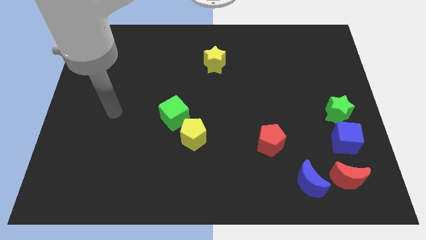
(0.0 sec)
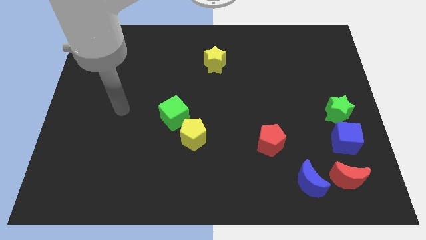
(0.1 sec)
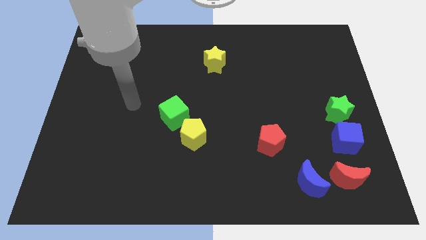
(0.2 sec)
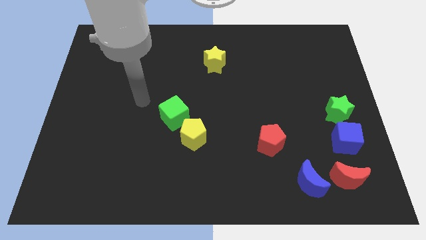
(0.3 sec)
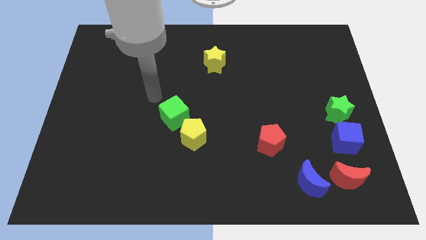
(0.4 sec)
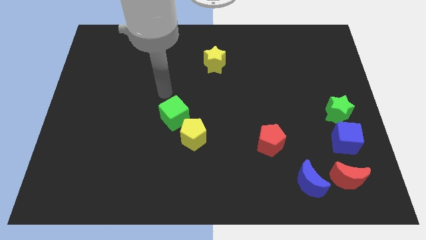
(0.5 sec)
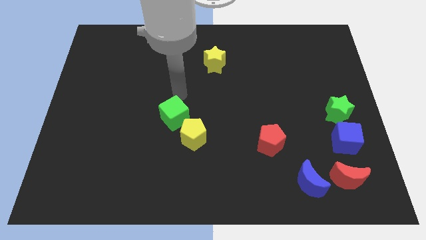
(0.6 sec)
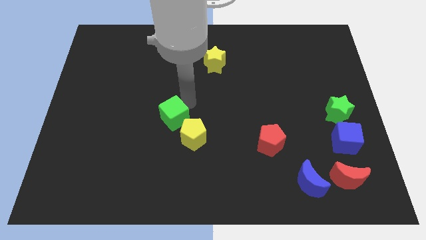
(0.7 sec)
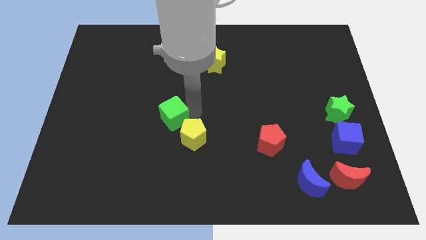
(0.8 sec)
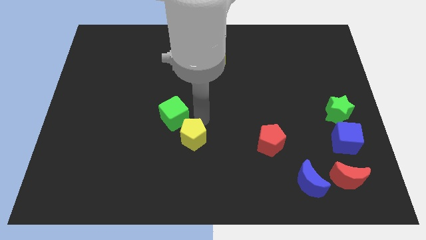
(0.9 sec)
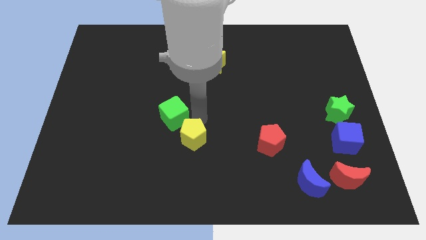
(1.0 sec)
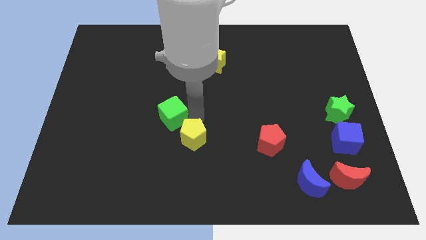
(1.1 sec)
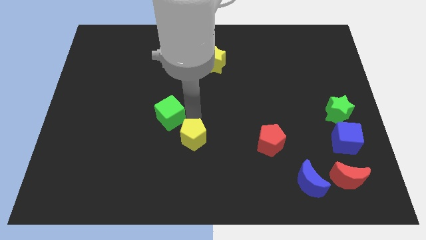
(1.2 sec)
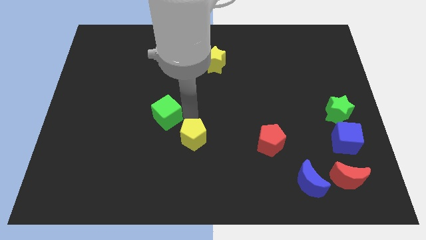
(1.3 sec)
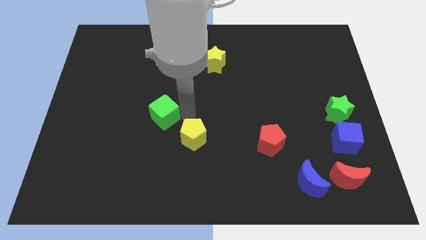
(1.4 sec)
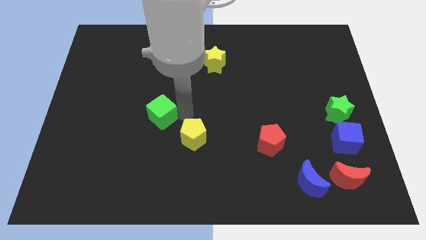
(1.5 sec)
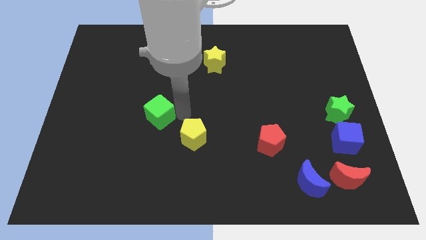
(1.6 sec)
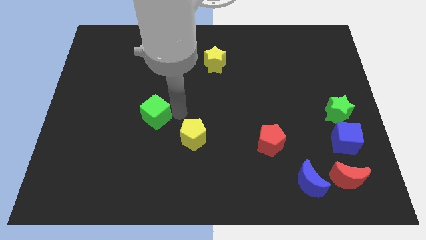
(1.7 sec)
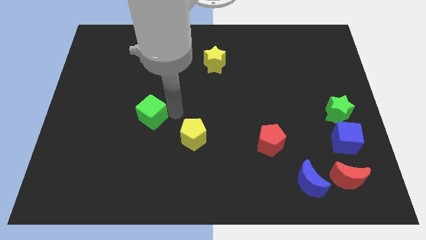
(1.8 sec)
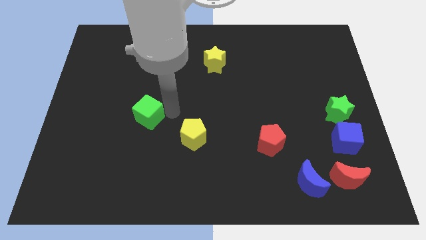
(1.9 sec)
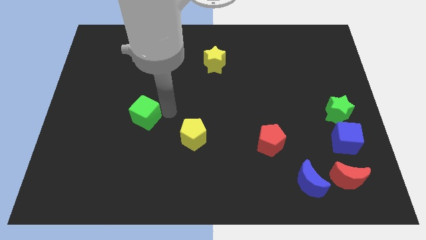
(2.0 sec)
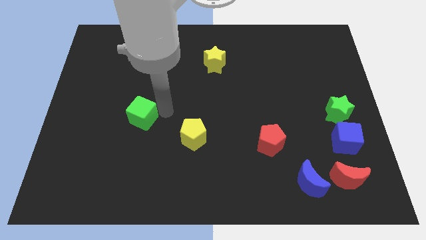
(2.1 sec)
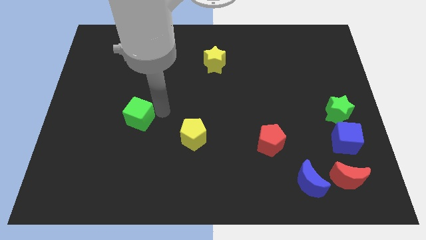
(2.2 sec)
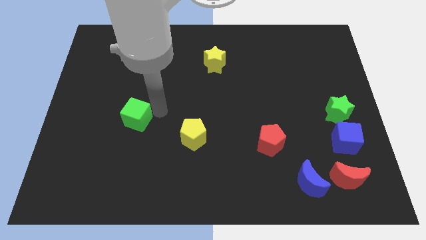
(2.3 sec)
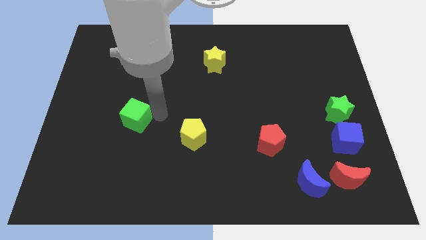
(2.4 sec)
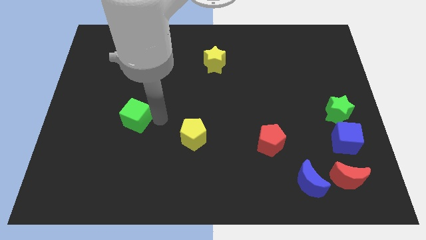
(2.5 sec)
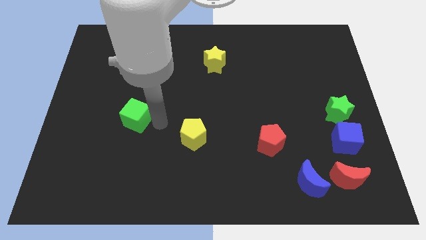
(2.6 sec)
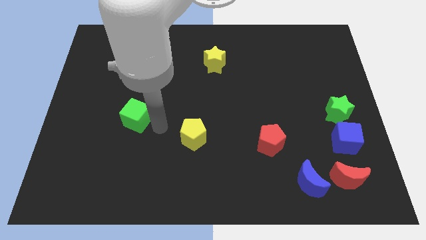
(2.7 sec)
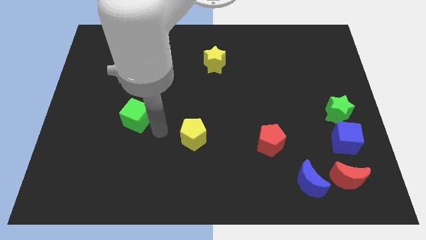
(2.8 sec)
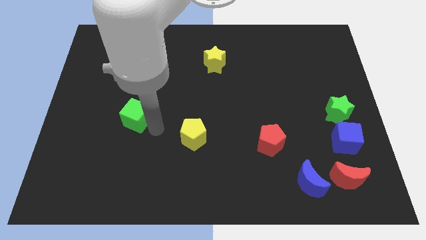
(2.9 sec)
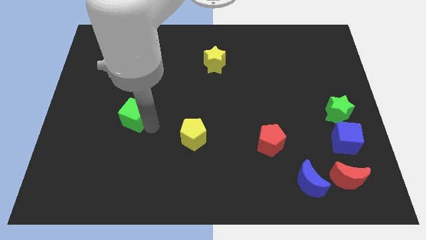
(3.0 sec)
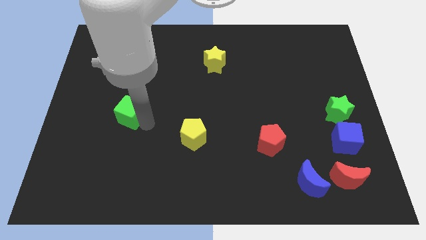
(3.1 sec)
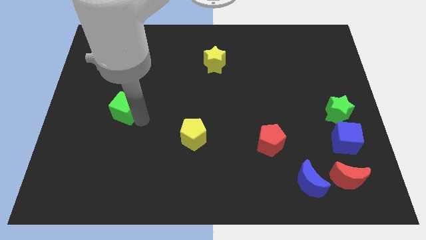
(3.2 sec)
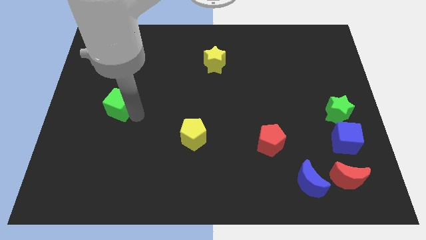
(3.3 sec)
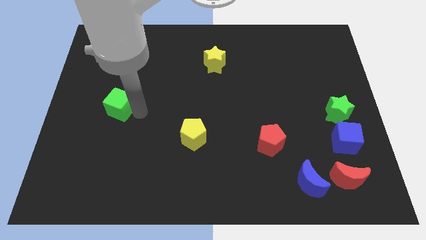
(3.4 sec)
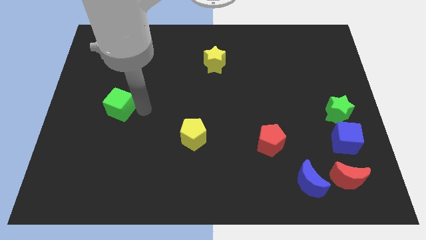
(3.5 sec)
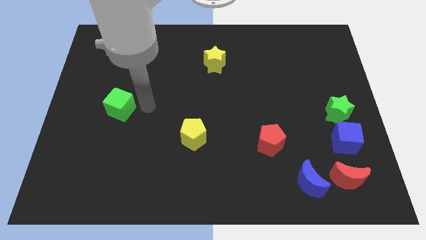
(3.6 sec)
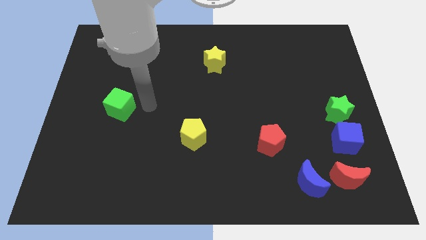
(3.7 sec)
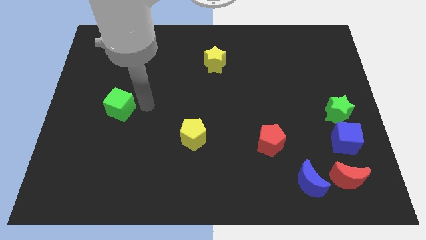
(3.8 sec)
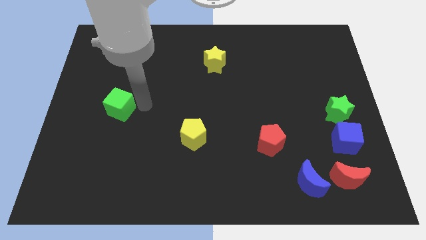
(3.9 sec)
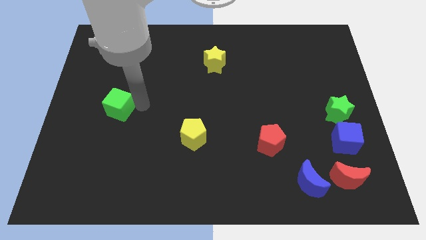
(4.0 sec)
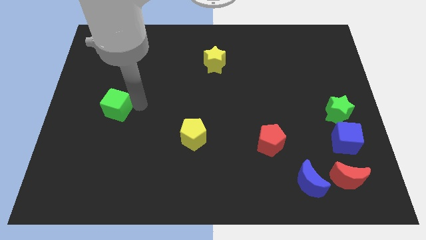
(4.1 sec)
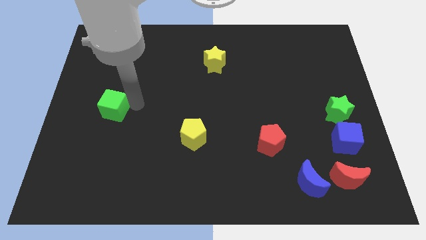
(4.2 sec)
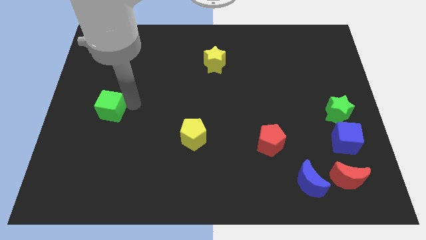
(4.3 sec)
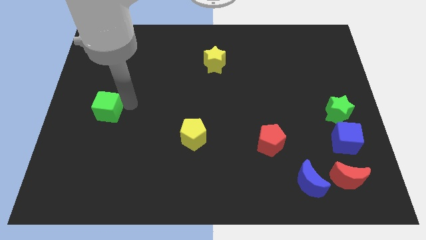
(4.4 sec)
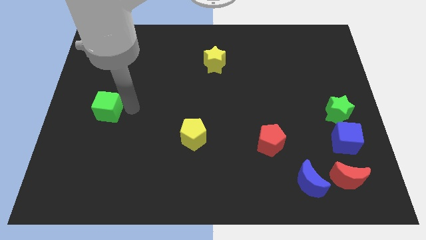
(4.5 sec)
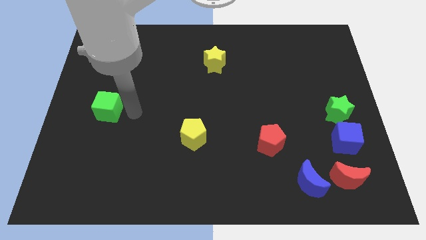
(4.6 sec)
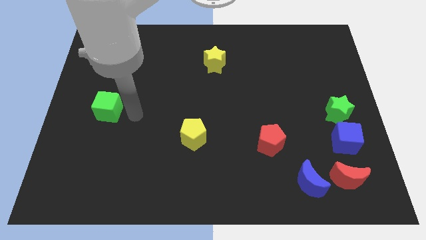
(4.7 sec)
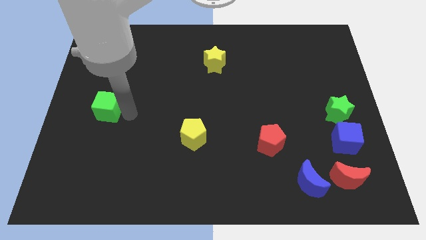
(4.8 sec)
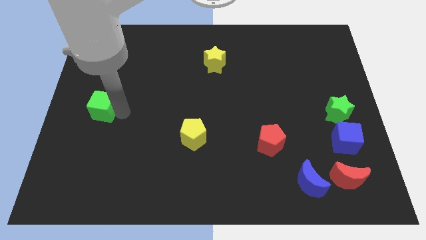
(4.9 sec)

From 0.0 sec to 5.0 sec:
push the green cube to the left side

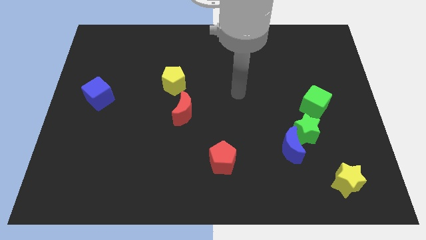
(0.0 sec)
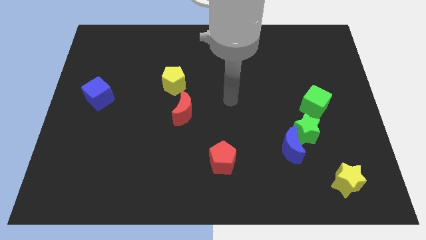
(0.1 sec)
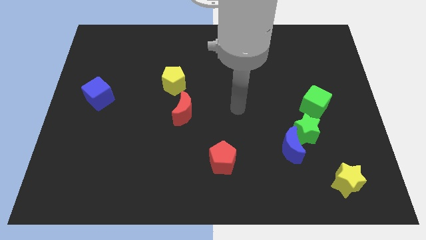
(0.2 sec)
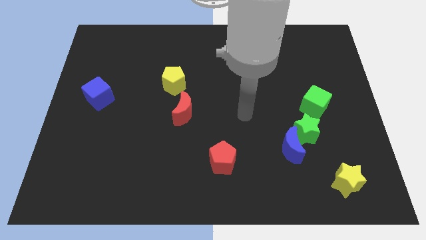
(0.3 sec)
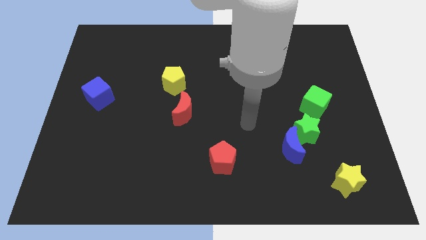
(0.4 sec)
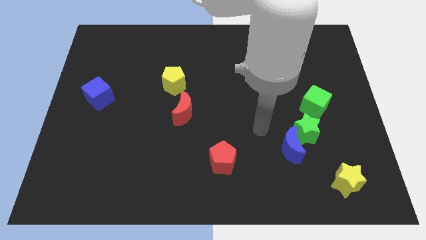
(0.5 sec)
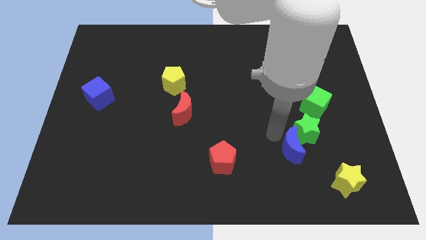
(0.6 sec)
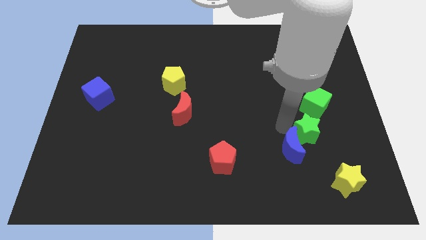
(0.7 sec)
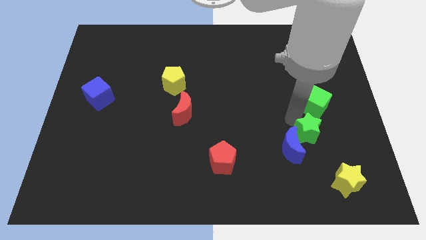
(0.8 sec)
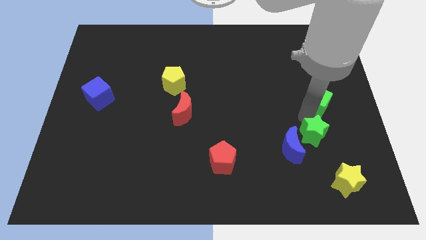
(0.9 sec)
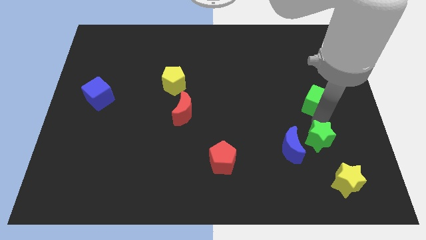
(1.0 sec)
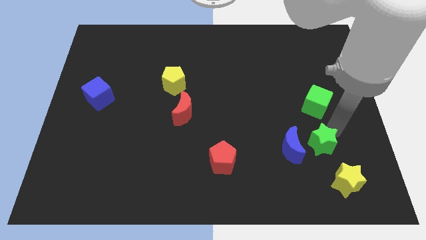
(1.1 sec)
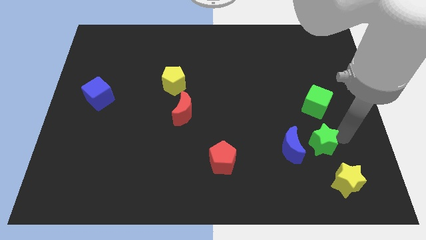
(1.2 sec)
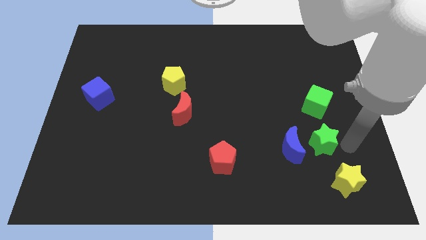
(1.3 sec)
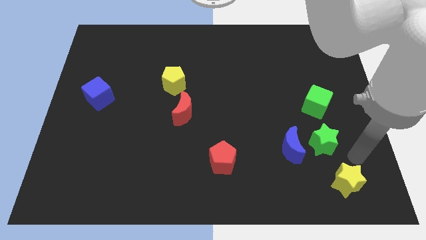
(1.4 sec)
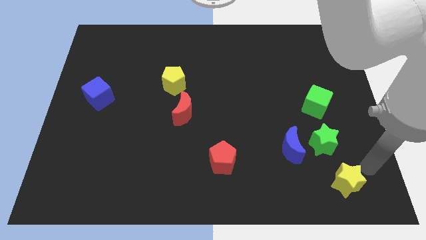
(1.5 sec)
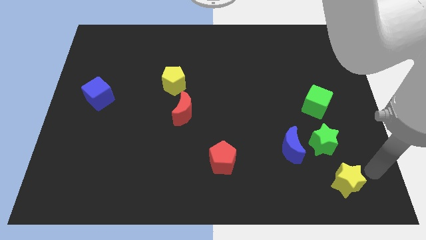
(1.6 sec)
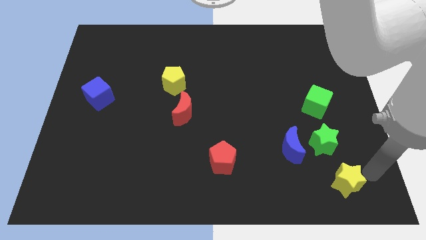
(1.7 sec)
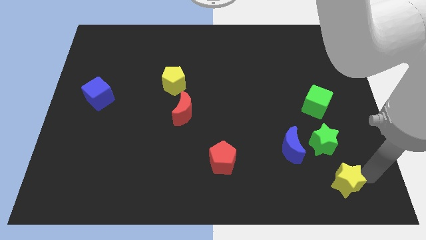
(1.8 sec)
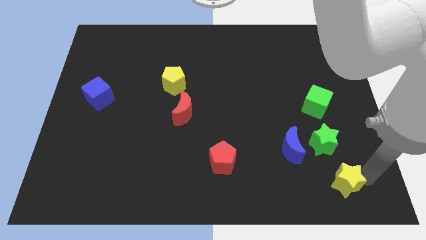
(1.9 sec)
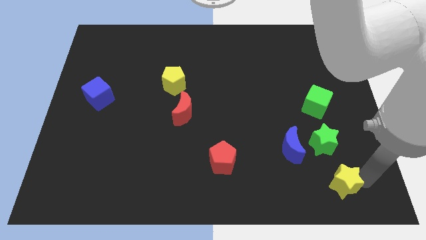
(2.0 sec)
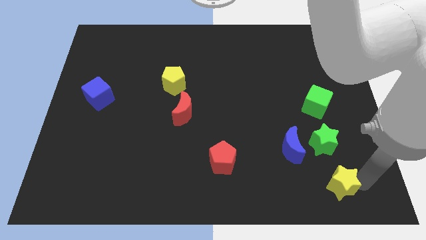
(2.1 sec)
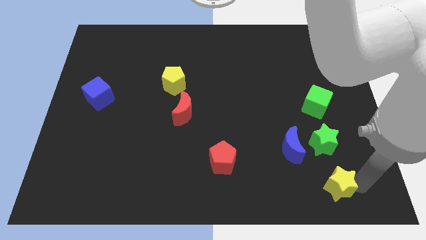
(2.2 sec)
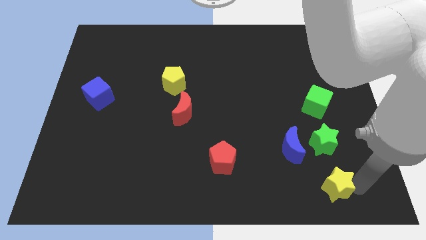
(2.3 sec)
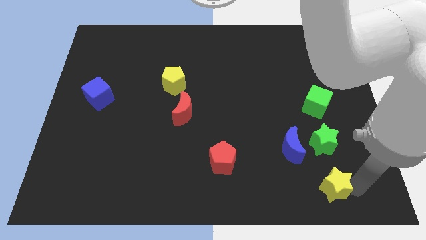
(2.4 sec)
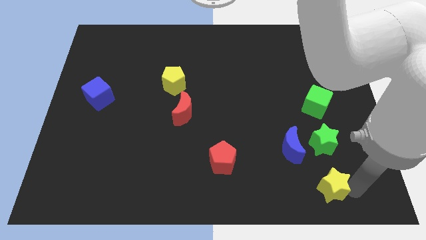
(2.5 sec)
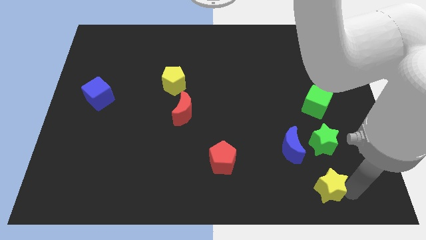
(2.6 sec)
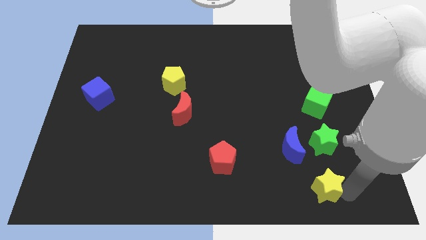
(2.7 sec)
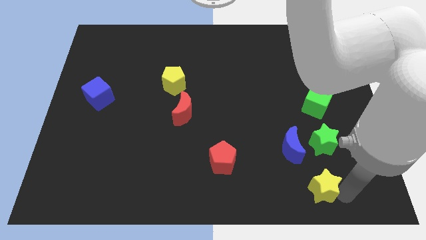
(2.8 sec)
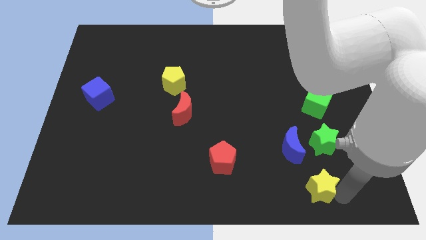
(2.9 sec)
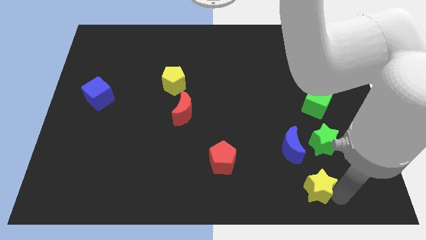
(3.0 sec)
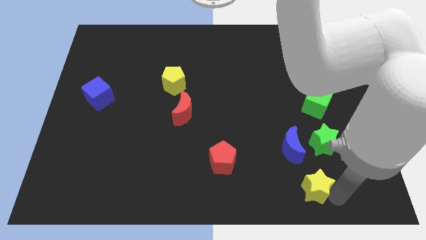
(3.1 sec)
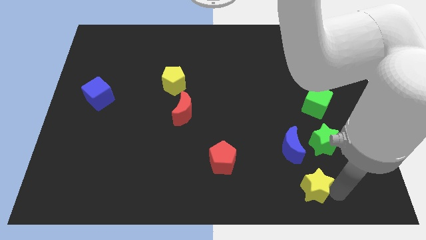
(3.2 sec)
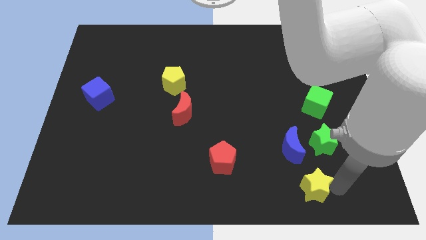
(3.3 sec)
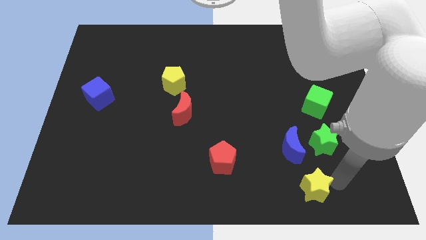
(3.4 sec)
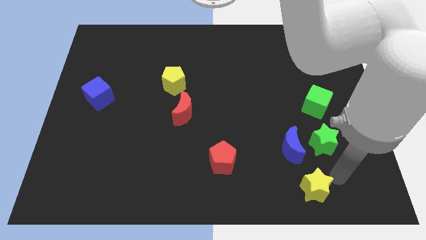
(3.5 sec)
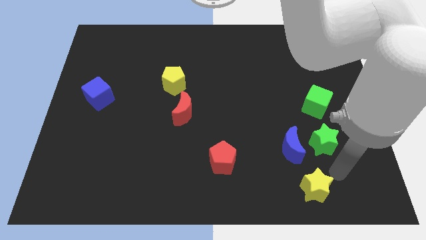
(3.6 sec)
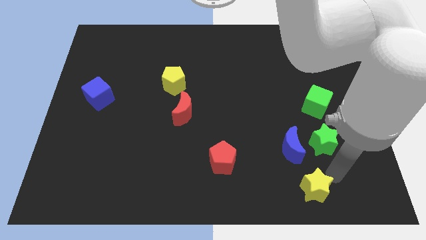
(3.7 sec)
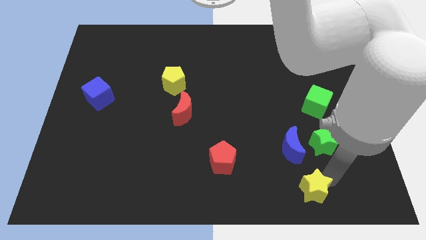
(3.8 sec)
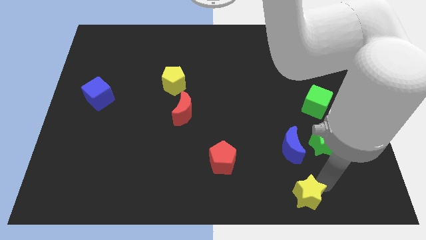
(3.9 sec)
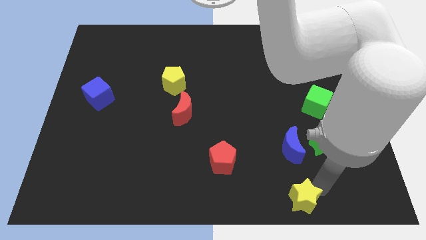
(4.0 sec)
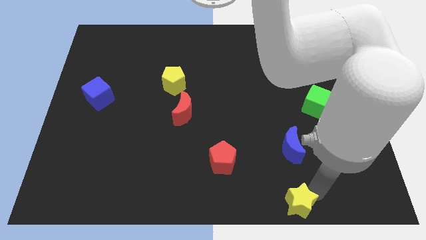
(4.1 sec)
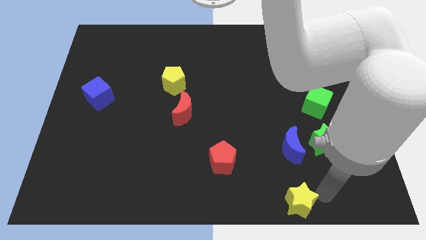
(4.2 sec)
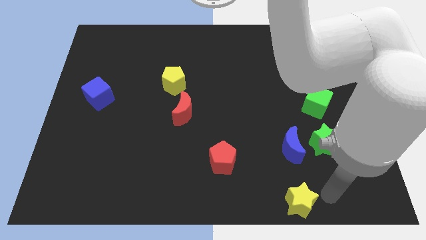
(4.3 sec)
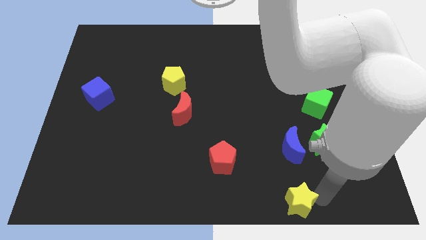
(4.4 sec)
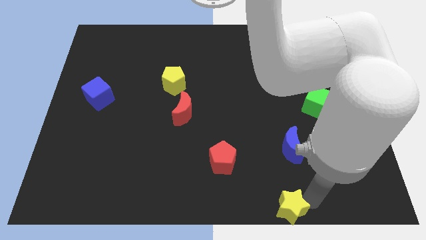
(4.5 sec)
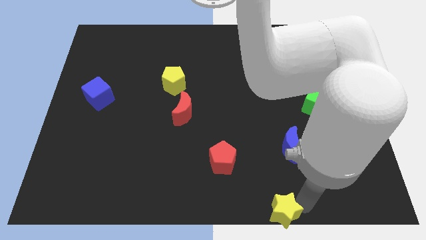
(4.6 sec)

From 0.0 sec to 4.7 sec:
move the yellow star to the bottom
